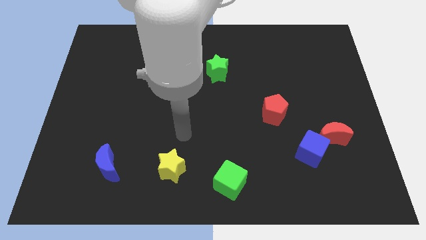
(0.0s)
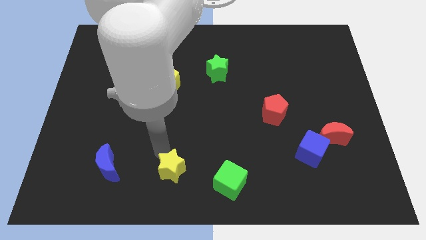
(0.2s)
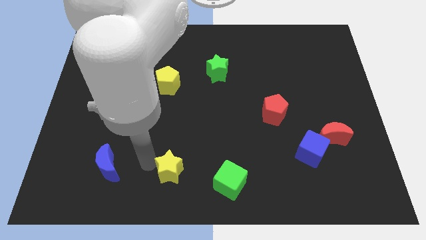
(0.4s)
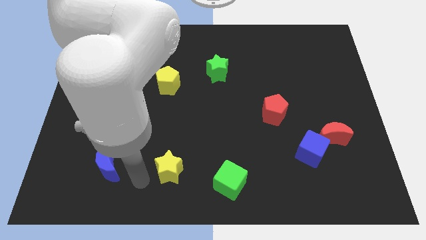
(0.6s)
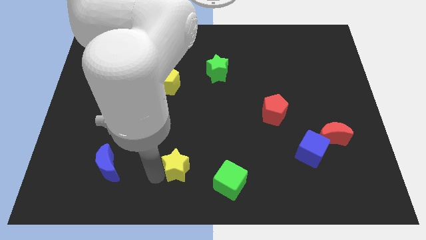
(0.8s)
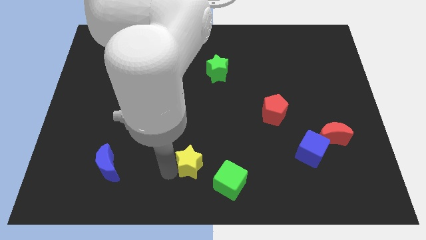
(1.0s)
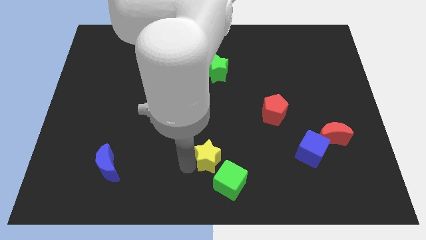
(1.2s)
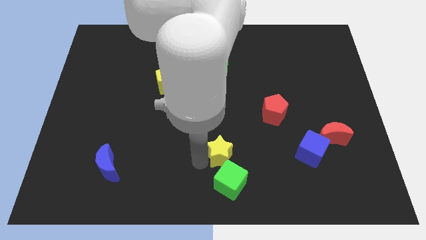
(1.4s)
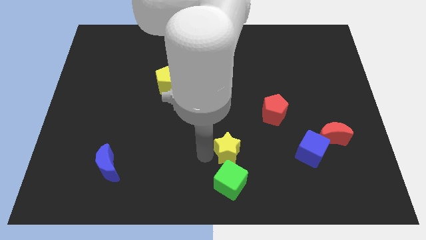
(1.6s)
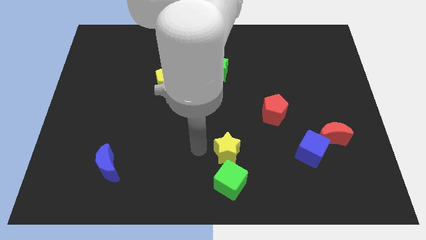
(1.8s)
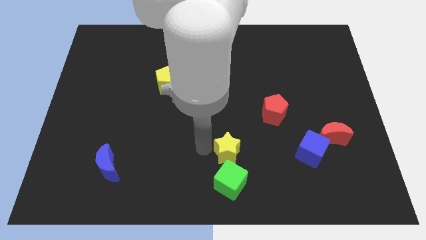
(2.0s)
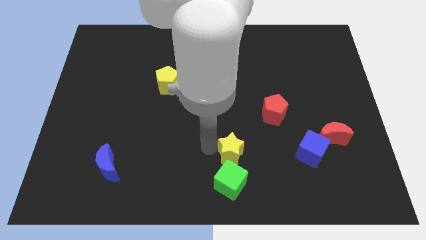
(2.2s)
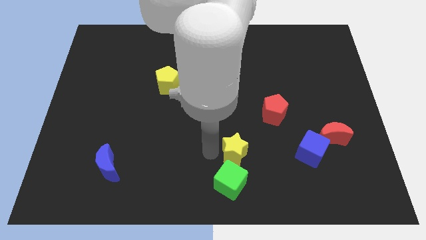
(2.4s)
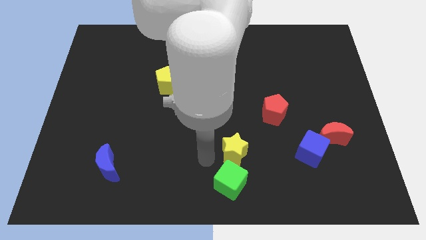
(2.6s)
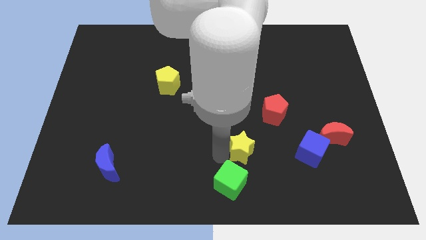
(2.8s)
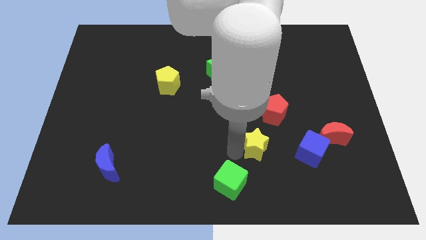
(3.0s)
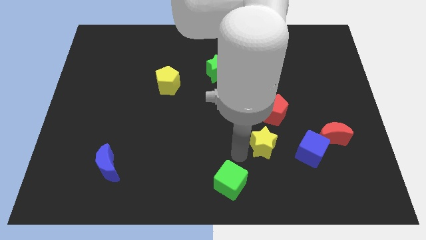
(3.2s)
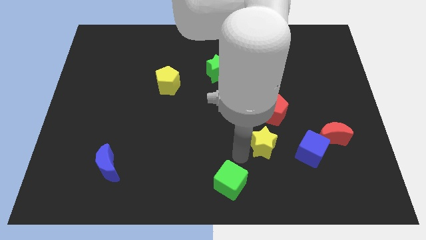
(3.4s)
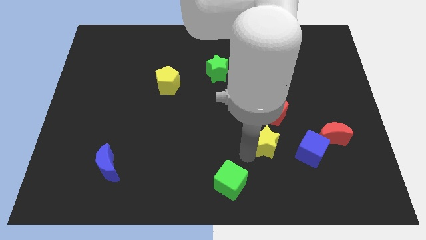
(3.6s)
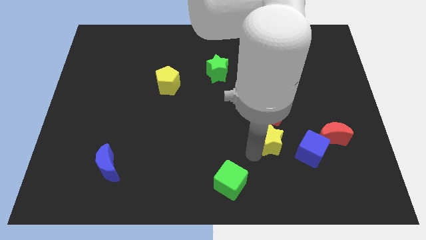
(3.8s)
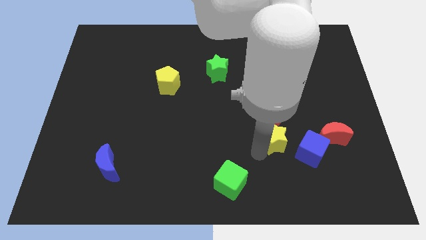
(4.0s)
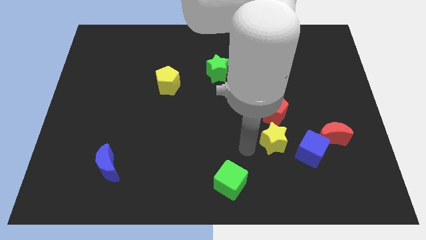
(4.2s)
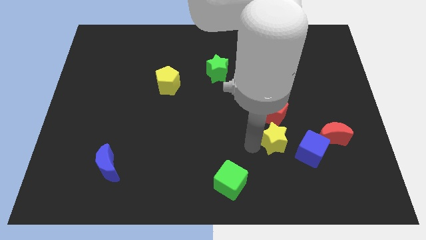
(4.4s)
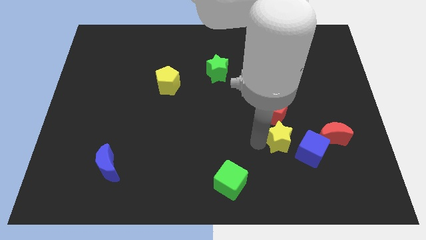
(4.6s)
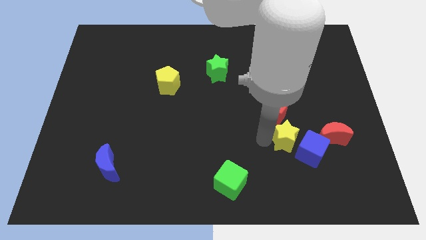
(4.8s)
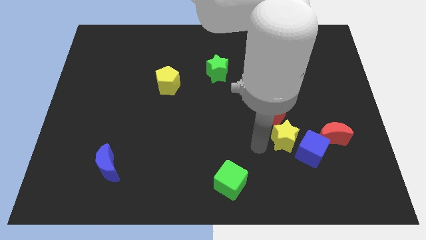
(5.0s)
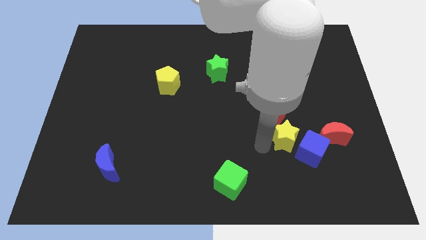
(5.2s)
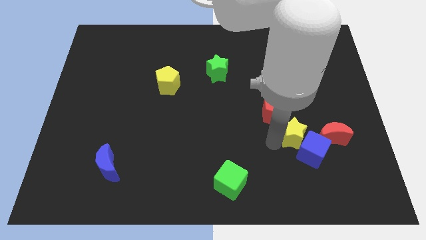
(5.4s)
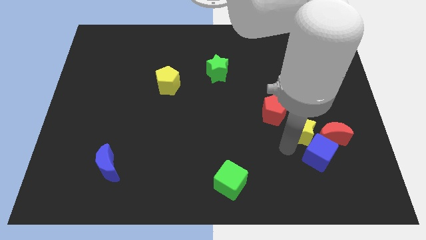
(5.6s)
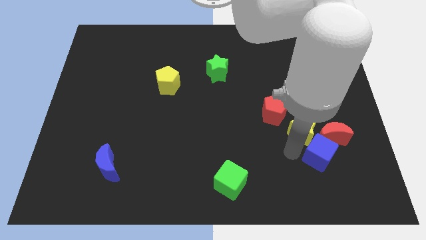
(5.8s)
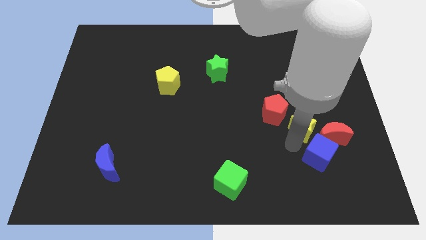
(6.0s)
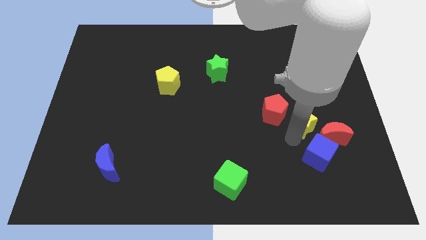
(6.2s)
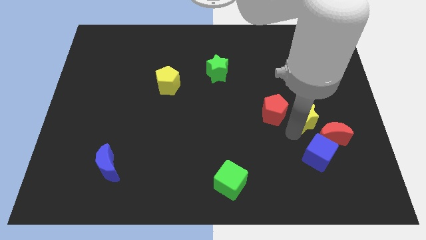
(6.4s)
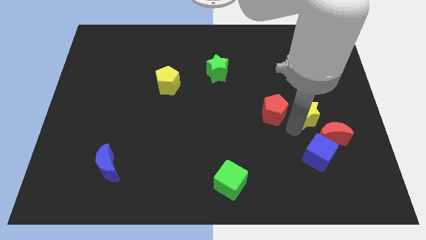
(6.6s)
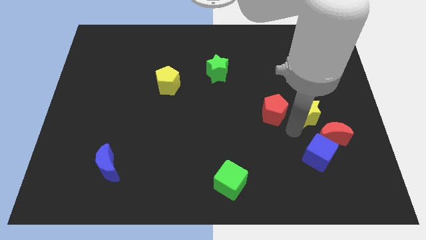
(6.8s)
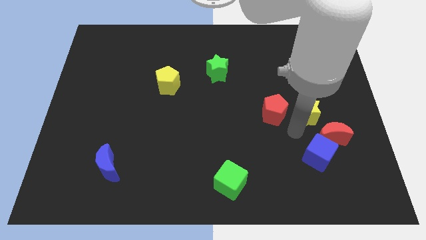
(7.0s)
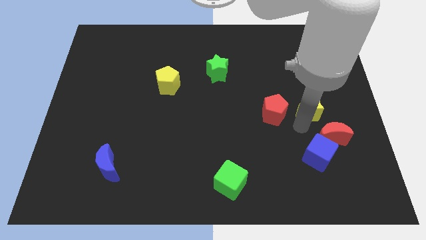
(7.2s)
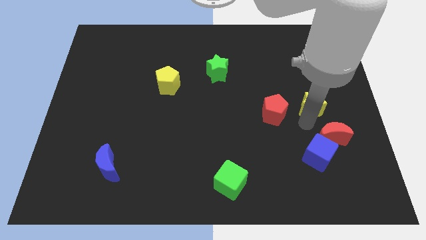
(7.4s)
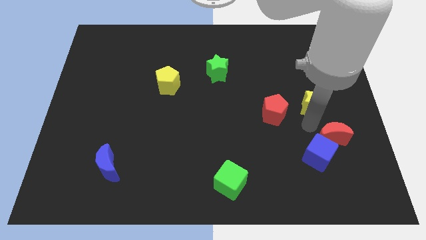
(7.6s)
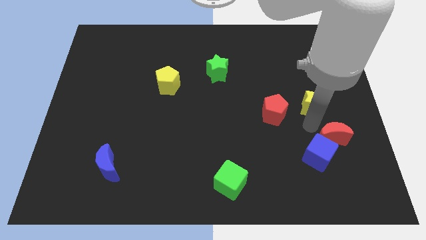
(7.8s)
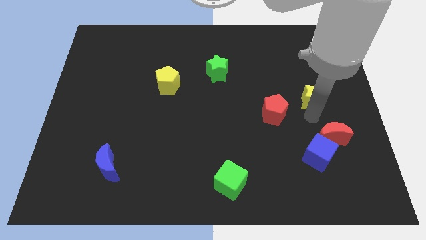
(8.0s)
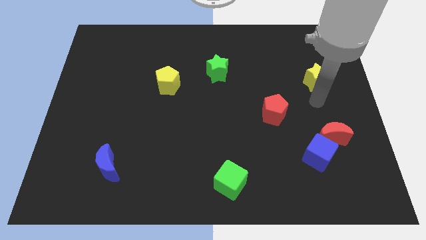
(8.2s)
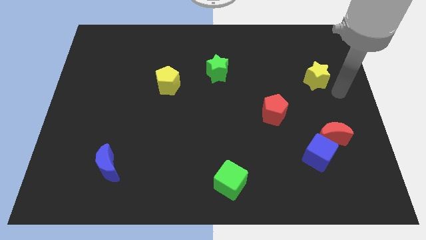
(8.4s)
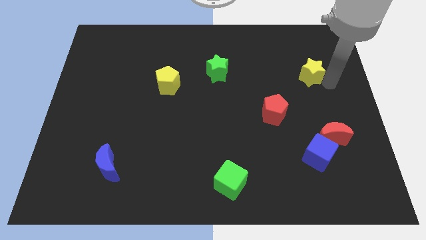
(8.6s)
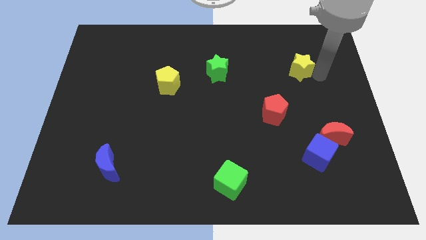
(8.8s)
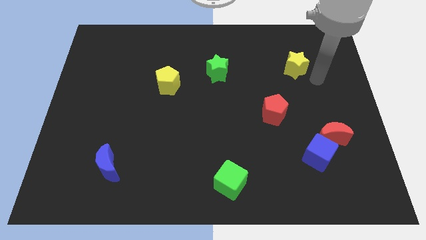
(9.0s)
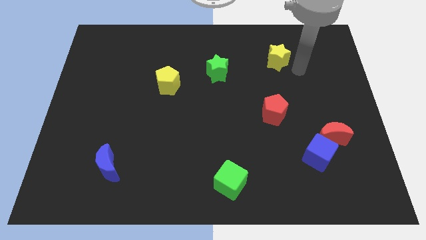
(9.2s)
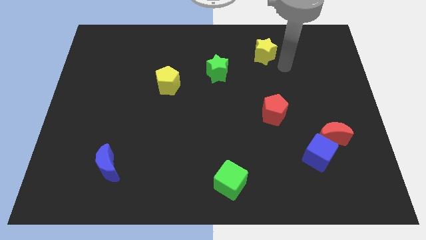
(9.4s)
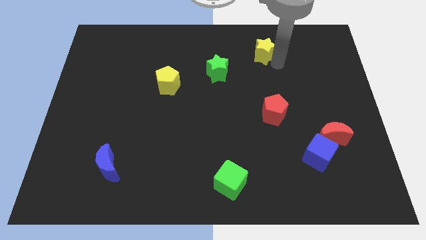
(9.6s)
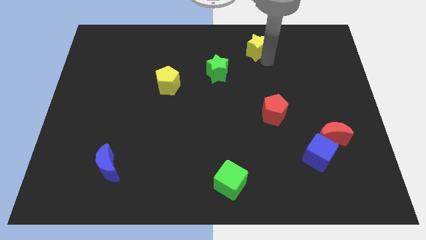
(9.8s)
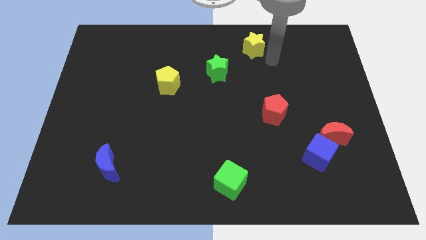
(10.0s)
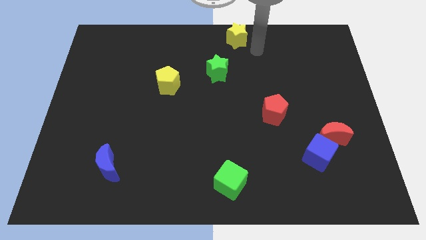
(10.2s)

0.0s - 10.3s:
move the yellow star to the top

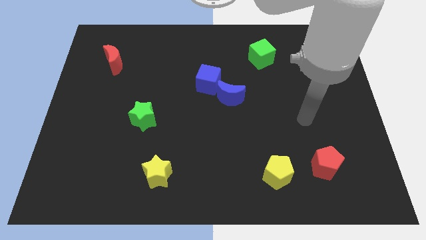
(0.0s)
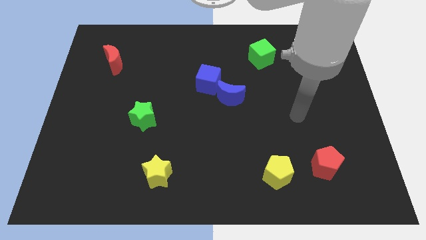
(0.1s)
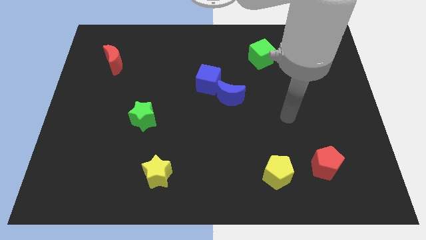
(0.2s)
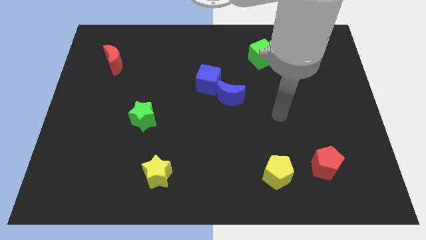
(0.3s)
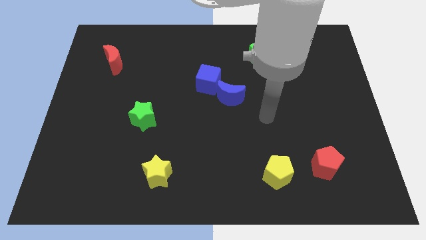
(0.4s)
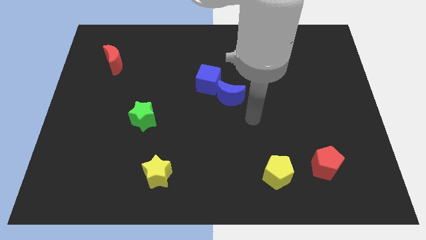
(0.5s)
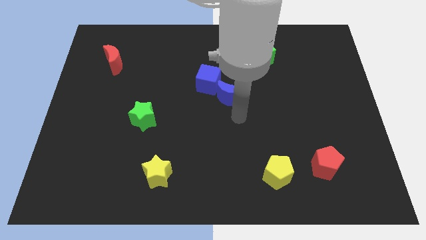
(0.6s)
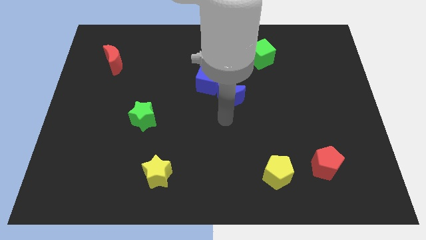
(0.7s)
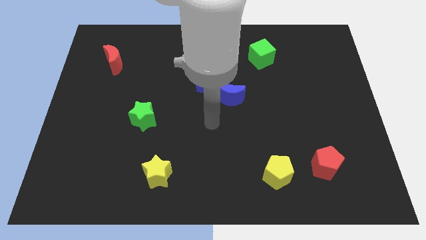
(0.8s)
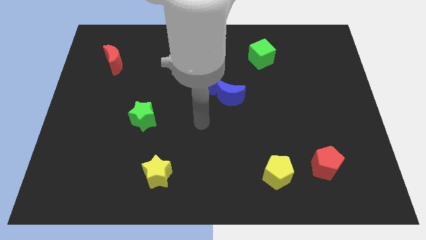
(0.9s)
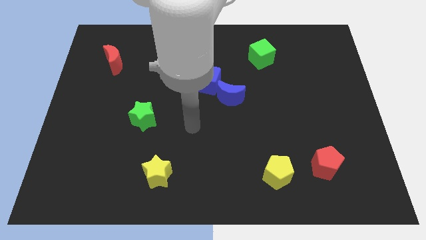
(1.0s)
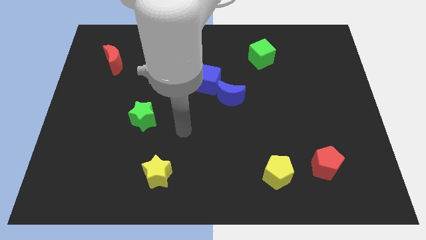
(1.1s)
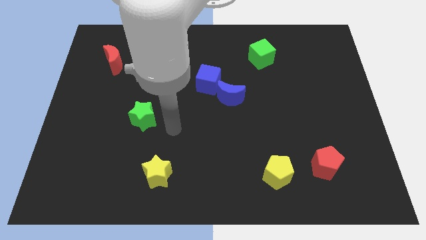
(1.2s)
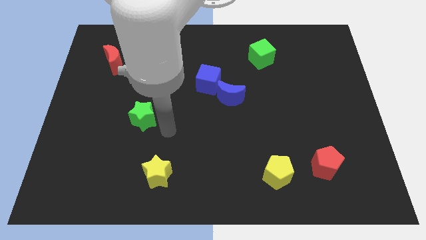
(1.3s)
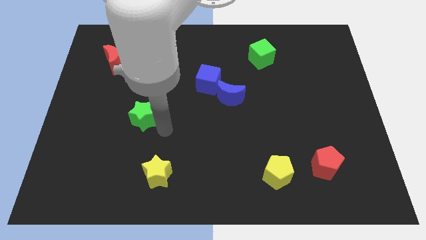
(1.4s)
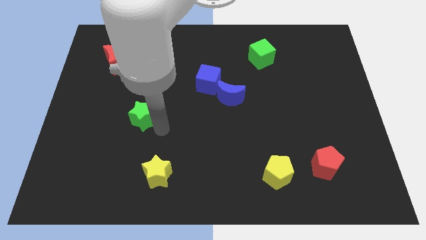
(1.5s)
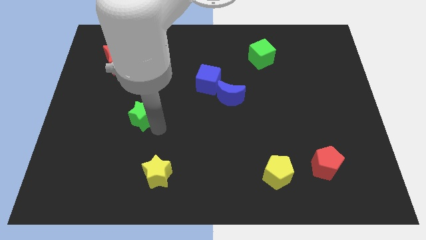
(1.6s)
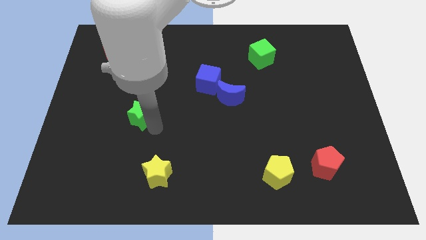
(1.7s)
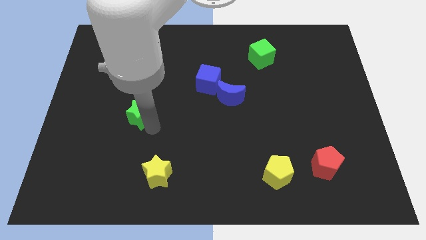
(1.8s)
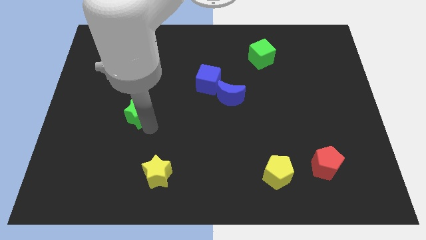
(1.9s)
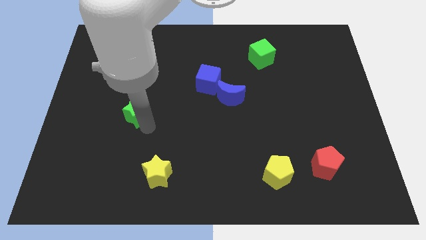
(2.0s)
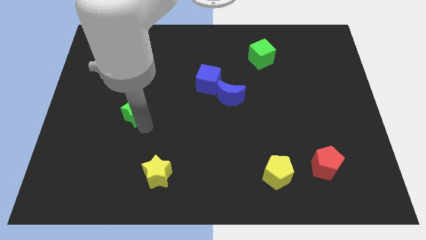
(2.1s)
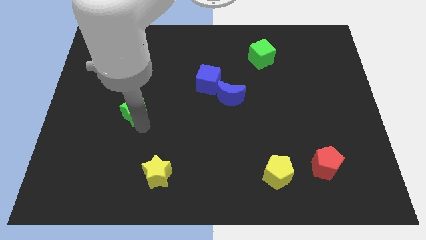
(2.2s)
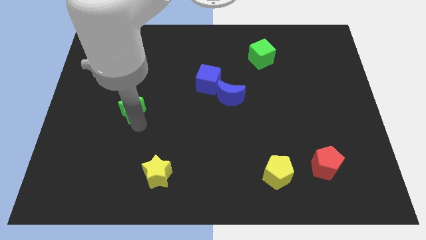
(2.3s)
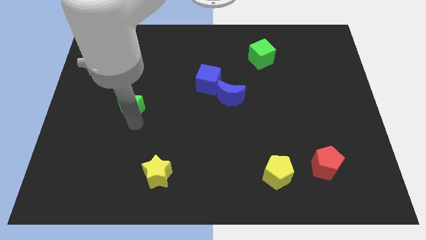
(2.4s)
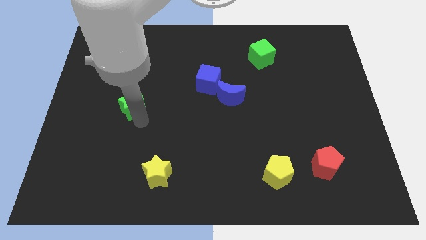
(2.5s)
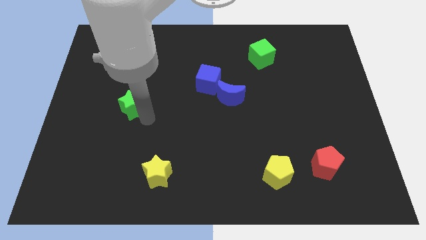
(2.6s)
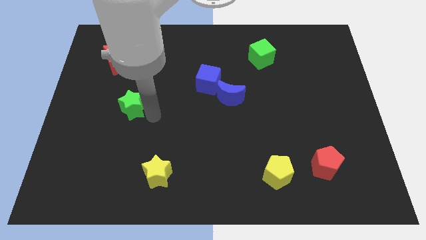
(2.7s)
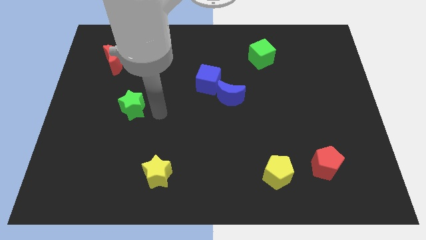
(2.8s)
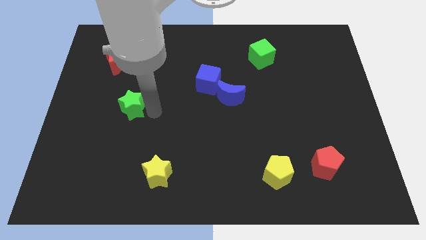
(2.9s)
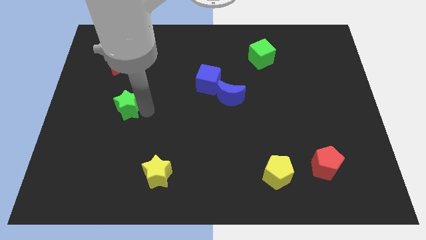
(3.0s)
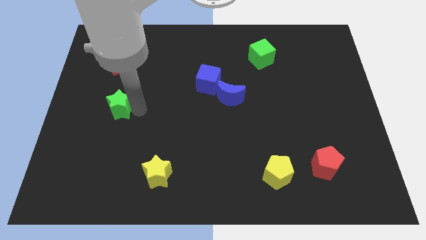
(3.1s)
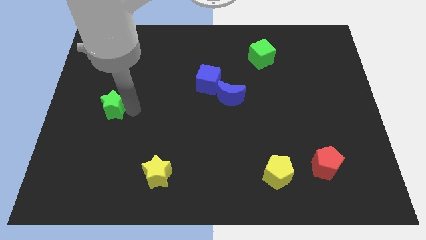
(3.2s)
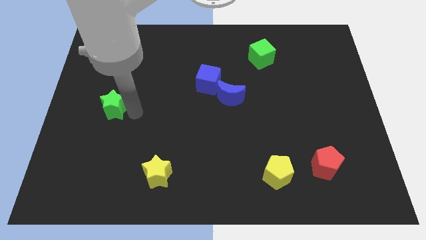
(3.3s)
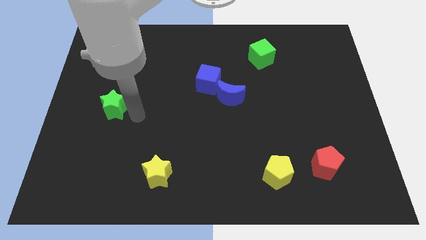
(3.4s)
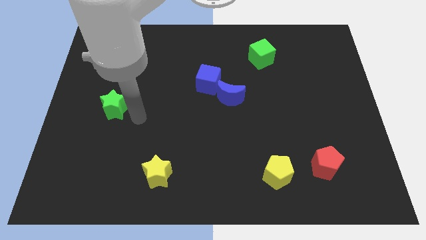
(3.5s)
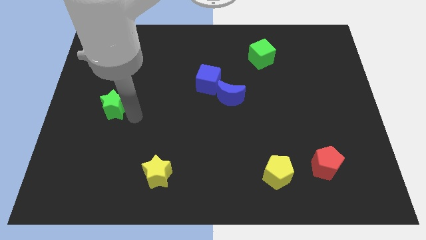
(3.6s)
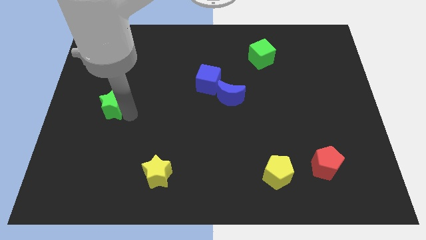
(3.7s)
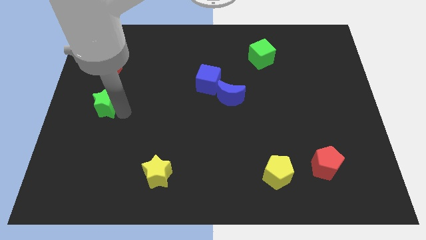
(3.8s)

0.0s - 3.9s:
push the green star to the center left
